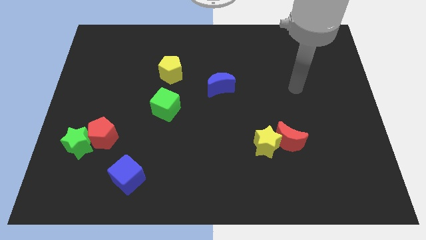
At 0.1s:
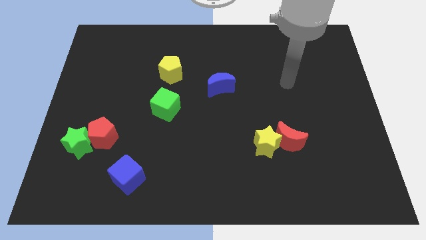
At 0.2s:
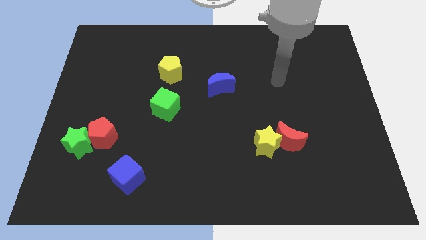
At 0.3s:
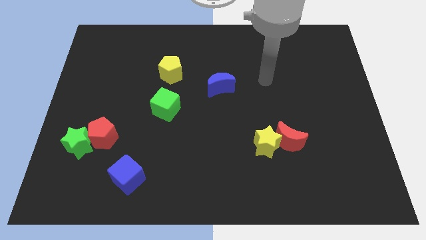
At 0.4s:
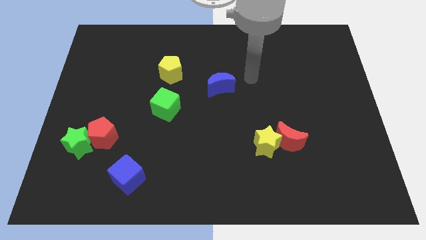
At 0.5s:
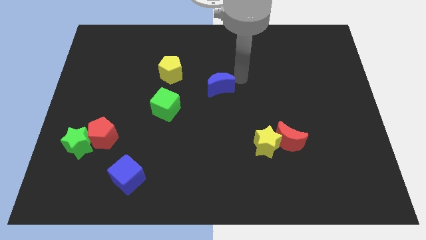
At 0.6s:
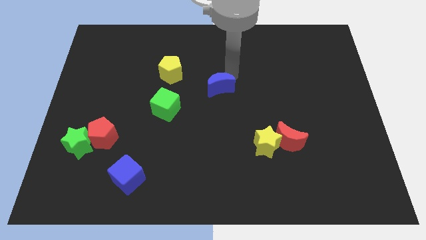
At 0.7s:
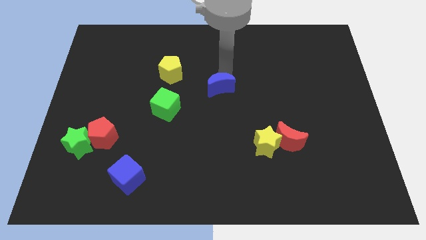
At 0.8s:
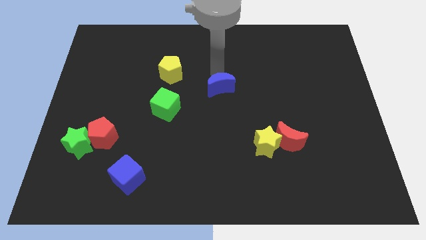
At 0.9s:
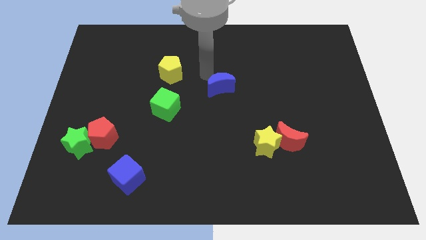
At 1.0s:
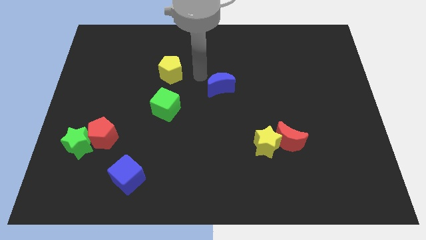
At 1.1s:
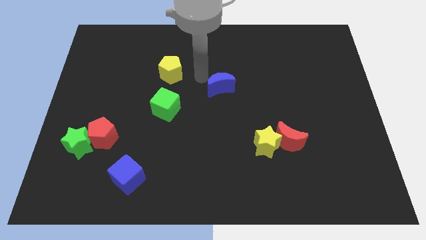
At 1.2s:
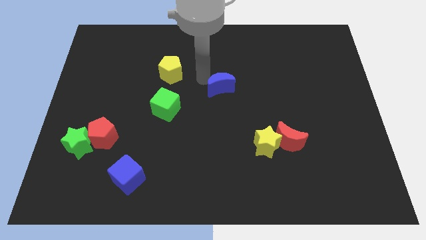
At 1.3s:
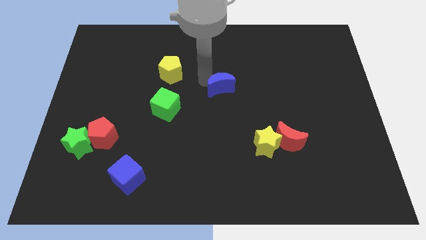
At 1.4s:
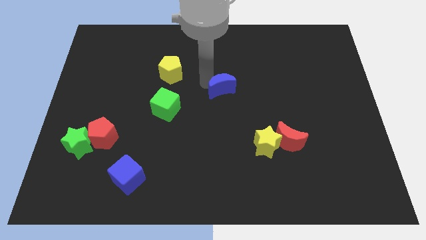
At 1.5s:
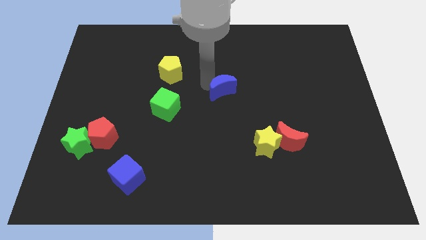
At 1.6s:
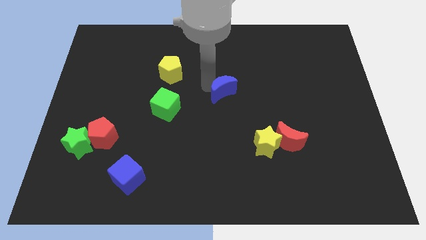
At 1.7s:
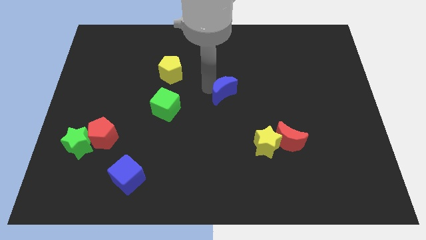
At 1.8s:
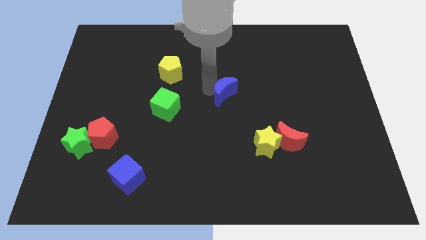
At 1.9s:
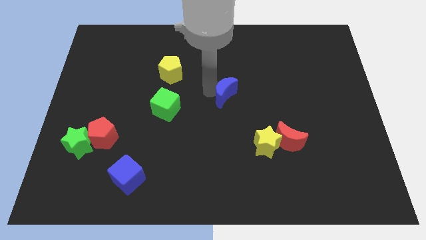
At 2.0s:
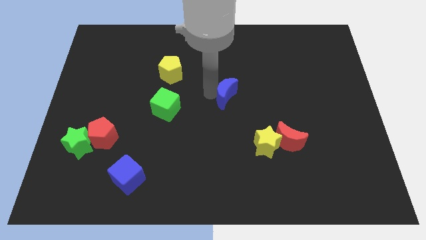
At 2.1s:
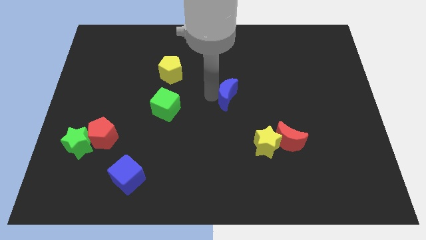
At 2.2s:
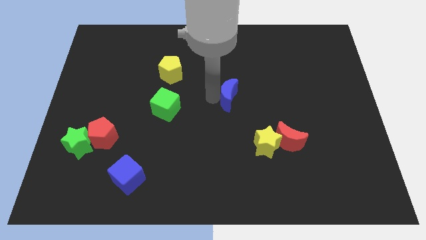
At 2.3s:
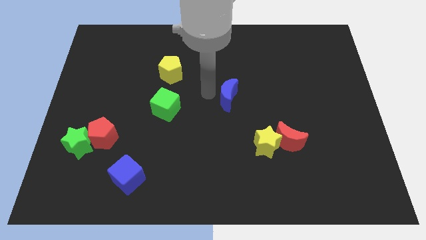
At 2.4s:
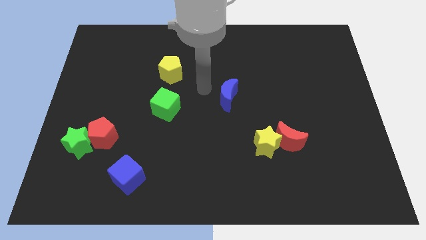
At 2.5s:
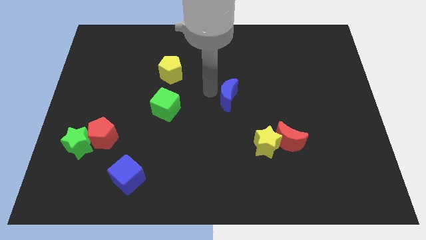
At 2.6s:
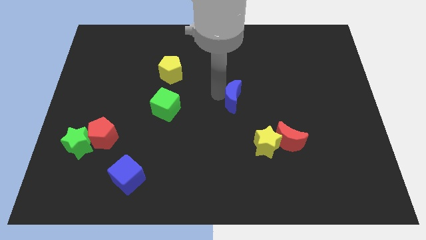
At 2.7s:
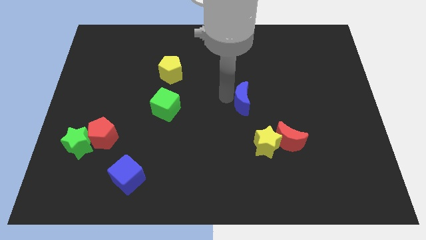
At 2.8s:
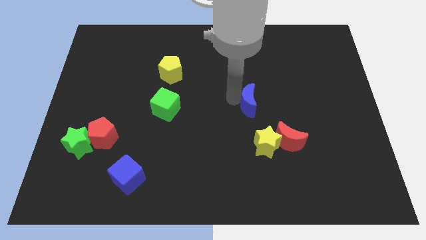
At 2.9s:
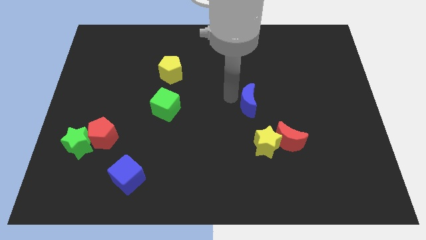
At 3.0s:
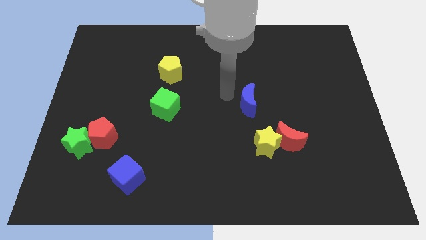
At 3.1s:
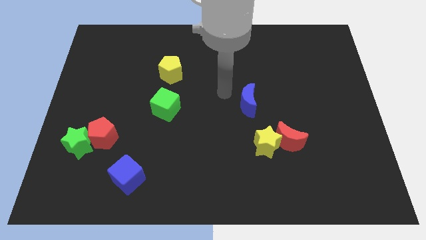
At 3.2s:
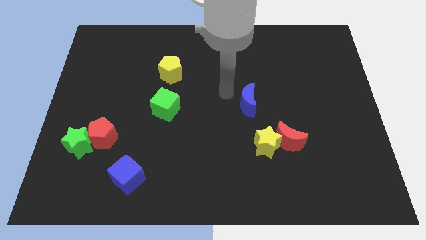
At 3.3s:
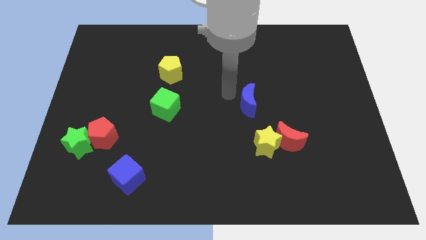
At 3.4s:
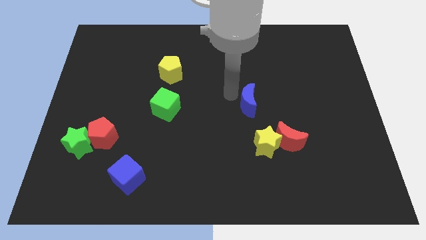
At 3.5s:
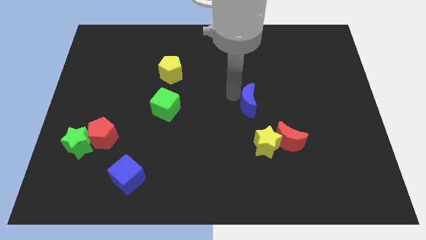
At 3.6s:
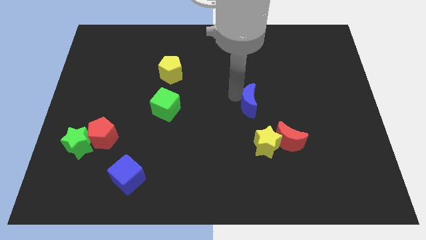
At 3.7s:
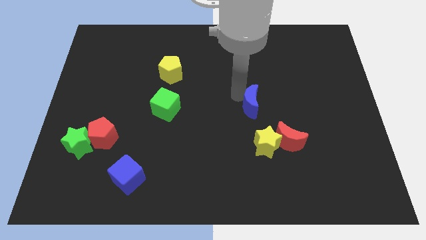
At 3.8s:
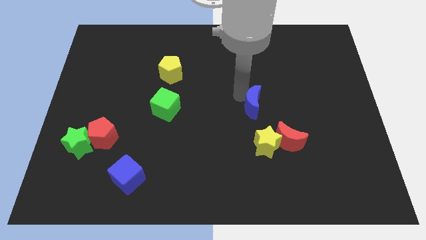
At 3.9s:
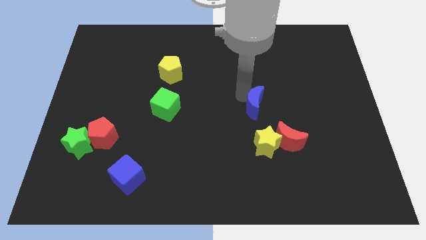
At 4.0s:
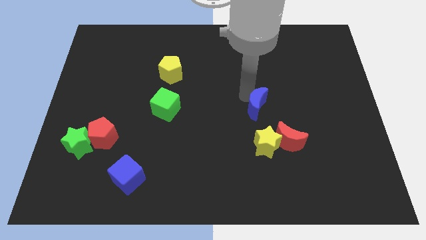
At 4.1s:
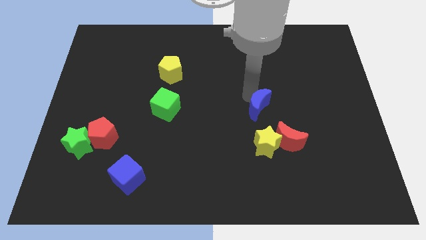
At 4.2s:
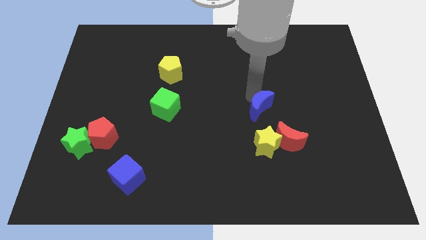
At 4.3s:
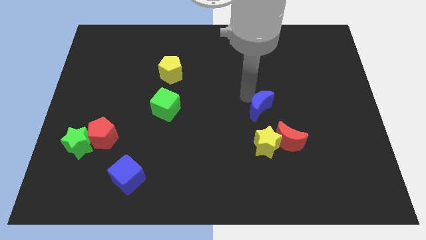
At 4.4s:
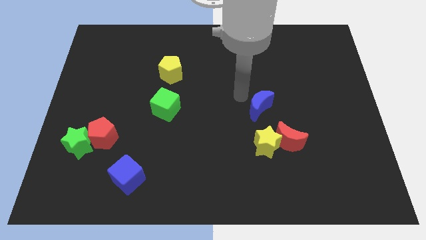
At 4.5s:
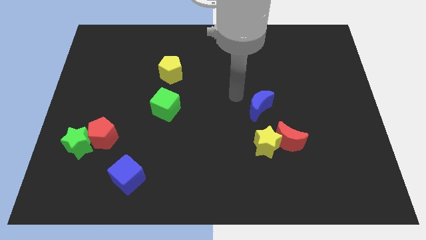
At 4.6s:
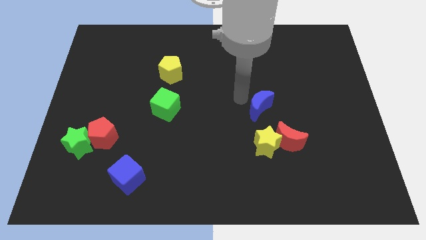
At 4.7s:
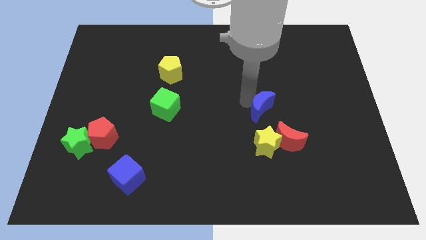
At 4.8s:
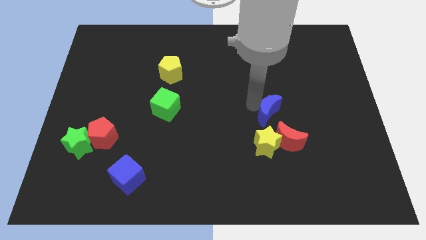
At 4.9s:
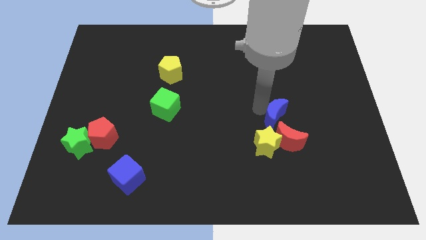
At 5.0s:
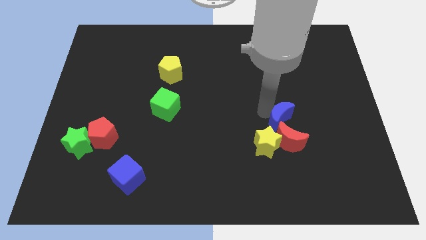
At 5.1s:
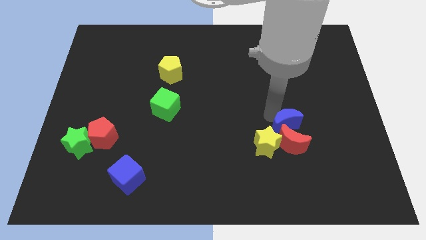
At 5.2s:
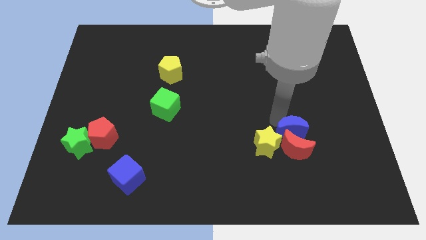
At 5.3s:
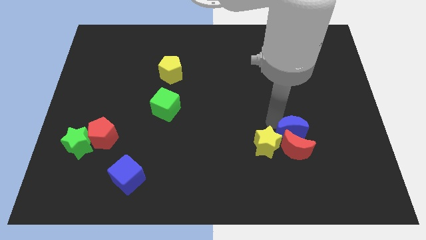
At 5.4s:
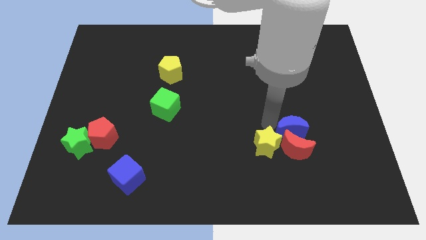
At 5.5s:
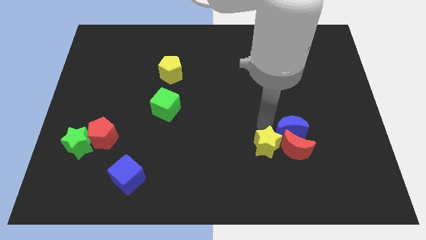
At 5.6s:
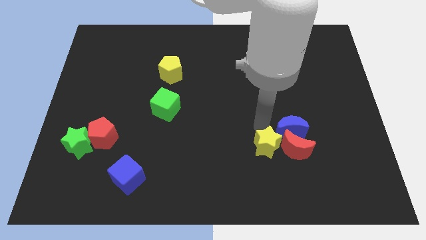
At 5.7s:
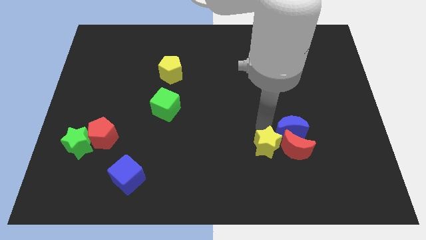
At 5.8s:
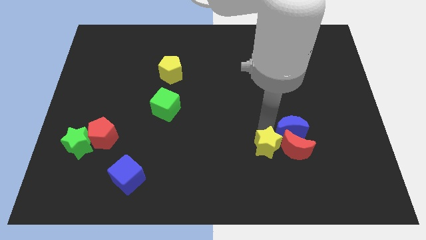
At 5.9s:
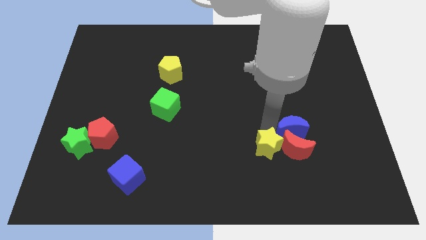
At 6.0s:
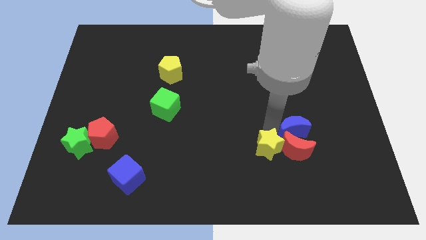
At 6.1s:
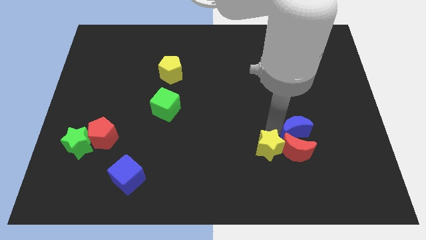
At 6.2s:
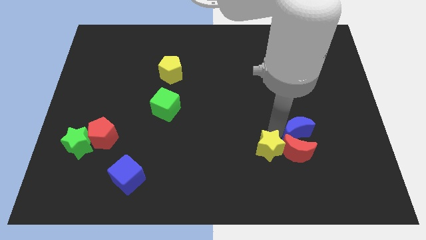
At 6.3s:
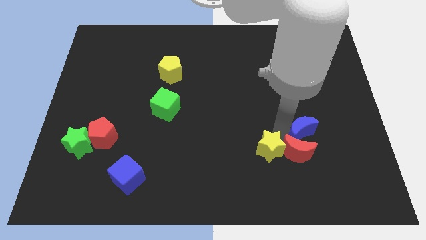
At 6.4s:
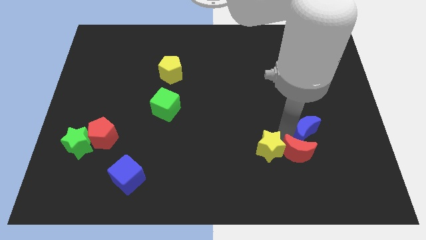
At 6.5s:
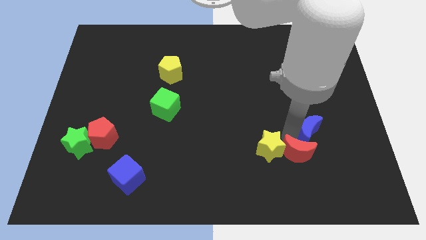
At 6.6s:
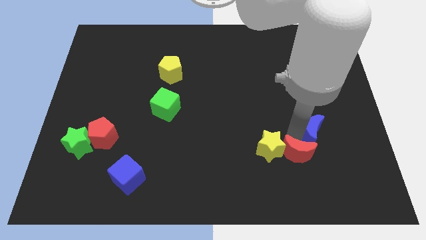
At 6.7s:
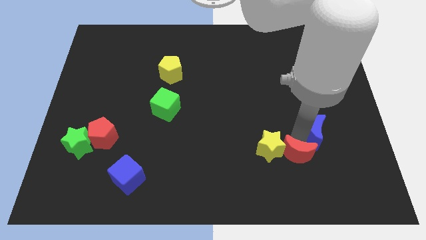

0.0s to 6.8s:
slide the blue moon just right of the red moon
